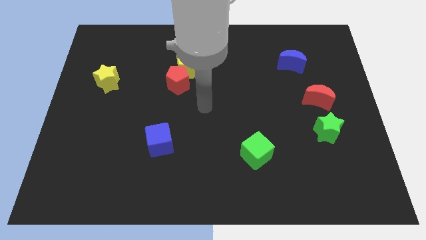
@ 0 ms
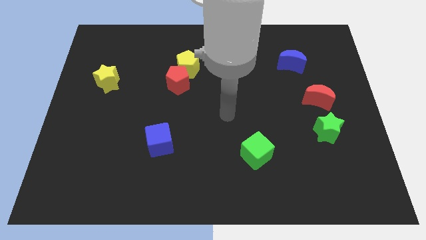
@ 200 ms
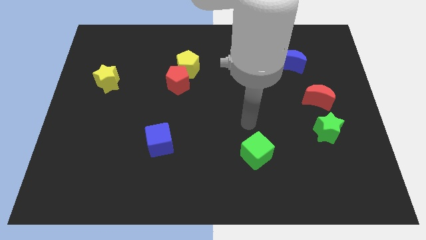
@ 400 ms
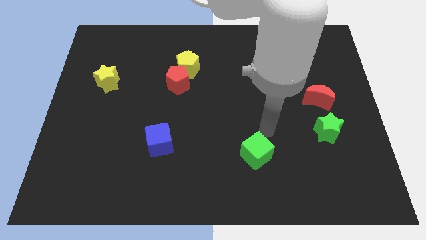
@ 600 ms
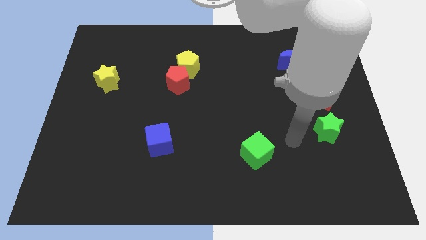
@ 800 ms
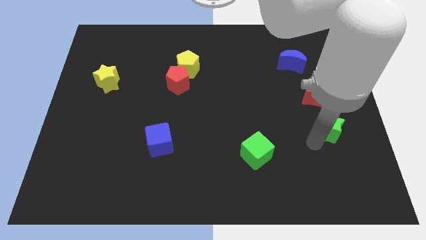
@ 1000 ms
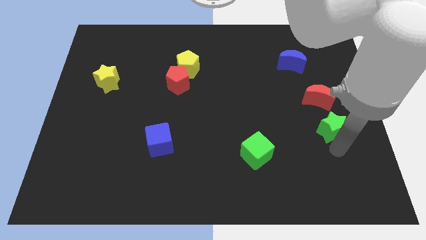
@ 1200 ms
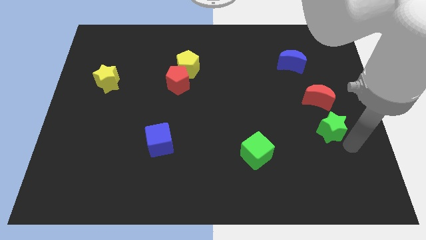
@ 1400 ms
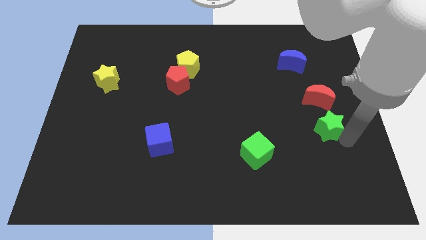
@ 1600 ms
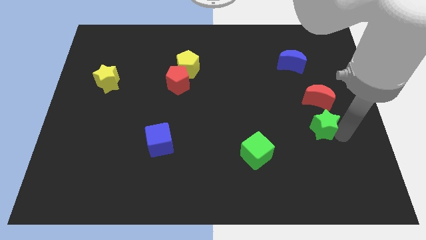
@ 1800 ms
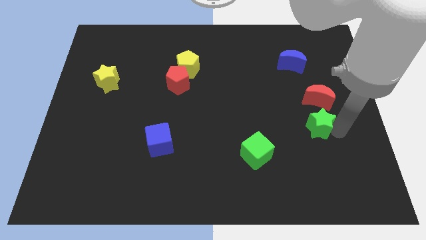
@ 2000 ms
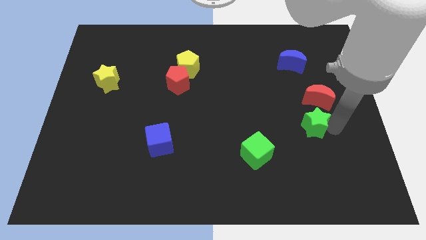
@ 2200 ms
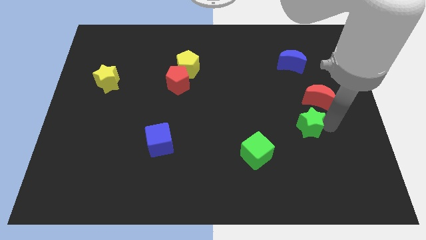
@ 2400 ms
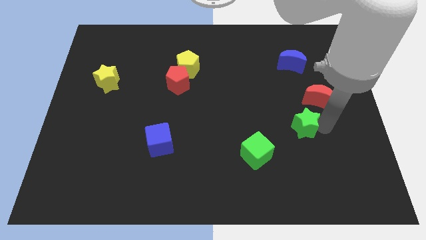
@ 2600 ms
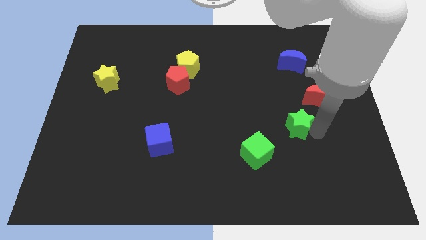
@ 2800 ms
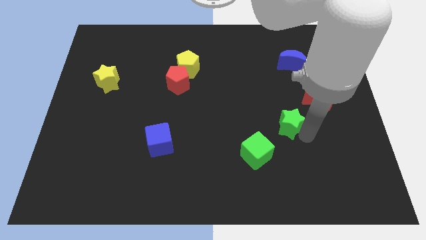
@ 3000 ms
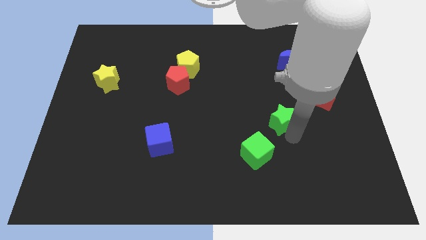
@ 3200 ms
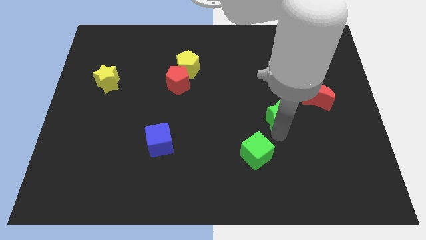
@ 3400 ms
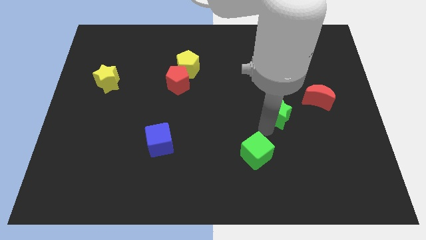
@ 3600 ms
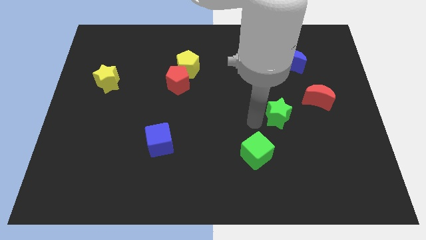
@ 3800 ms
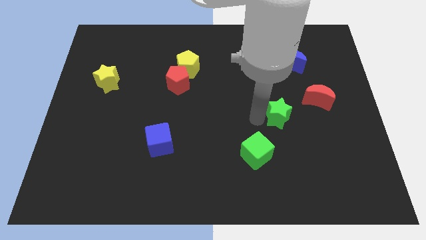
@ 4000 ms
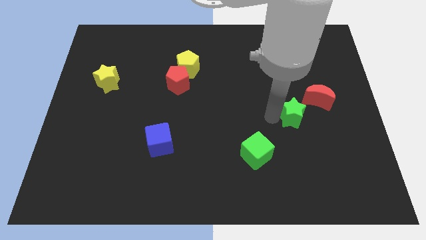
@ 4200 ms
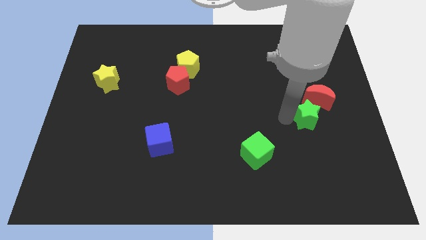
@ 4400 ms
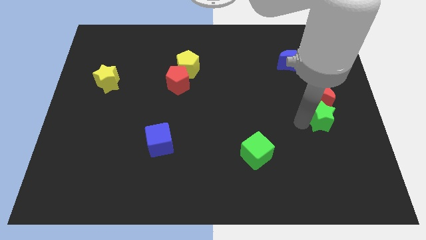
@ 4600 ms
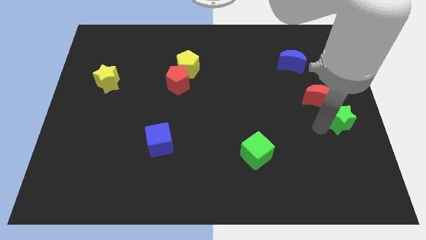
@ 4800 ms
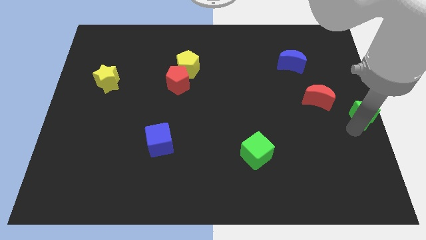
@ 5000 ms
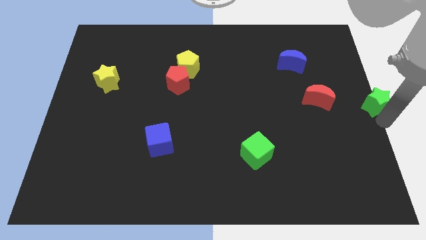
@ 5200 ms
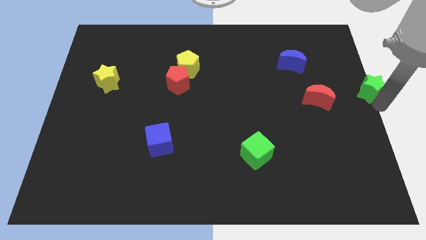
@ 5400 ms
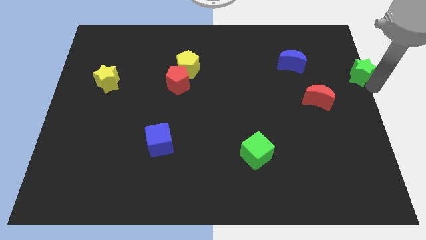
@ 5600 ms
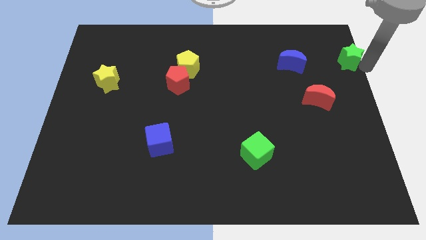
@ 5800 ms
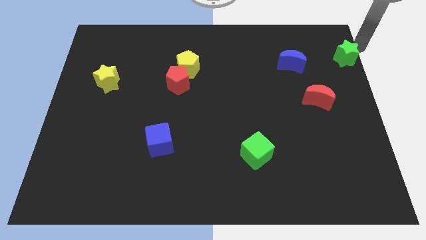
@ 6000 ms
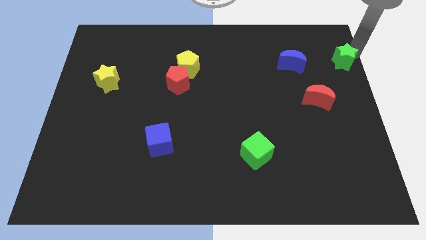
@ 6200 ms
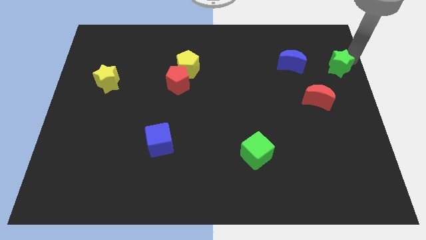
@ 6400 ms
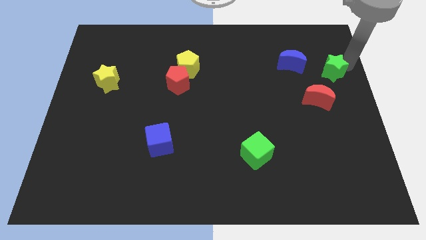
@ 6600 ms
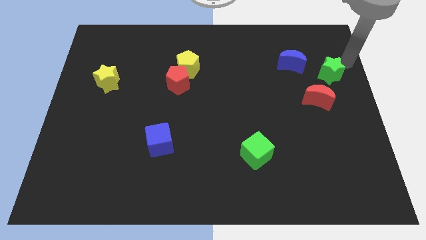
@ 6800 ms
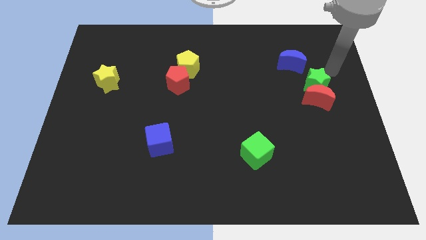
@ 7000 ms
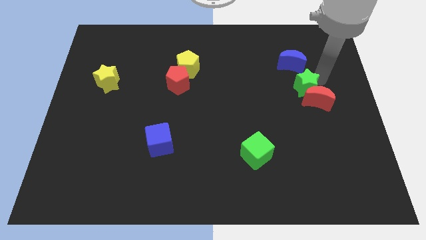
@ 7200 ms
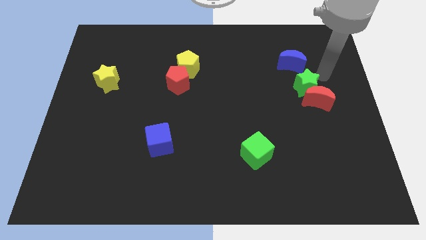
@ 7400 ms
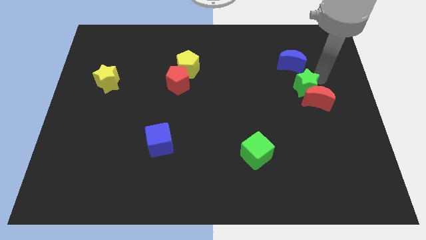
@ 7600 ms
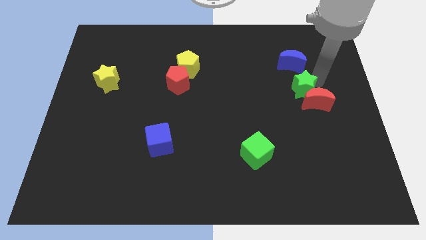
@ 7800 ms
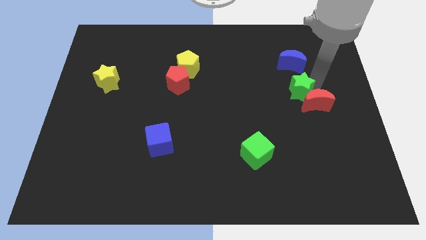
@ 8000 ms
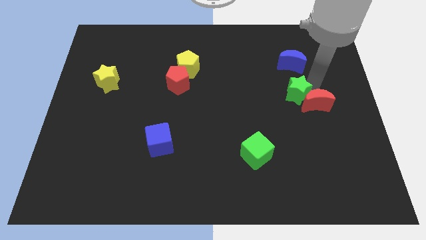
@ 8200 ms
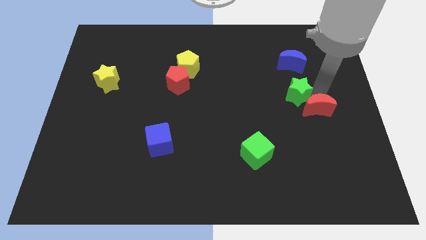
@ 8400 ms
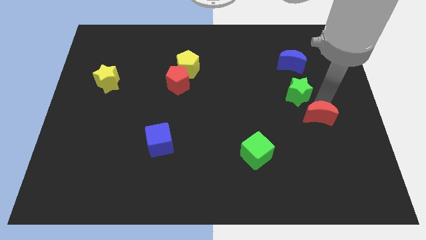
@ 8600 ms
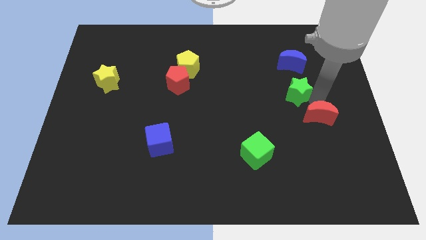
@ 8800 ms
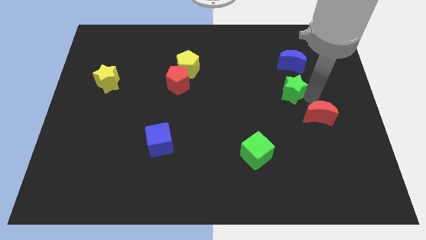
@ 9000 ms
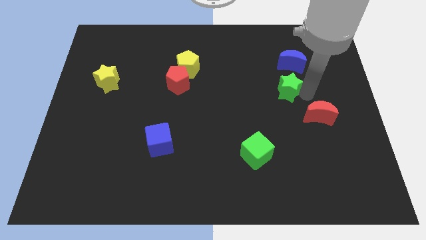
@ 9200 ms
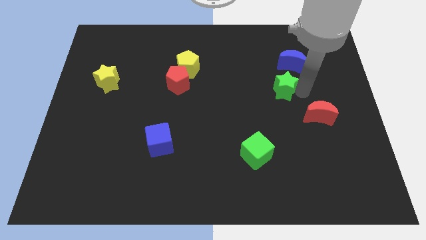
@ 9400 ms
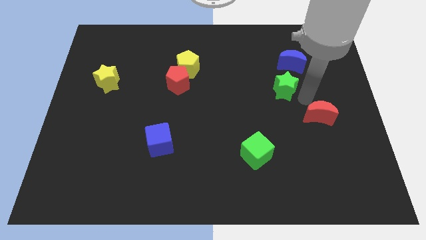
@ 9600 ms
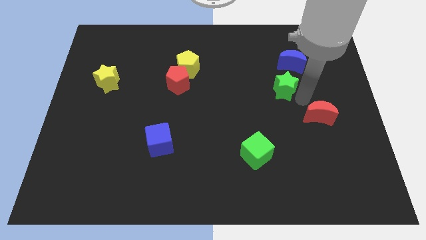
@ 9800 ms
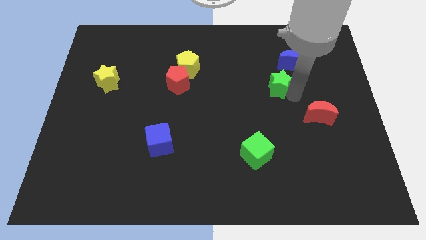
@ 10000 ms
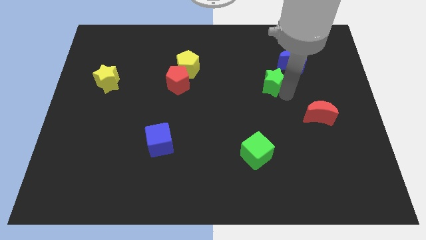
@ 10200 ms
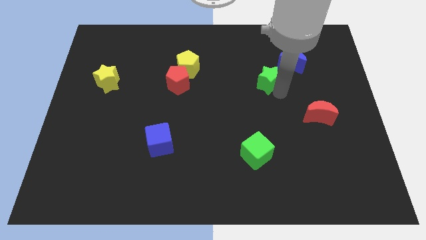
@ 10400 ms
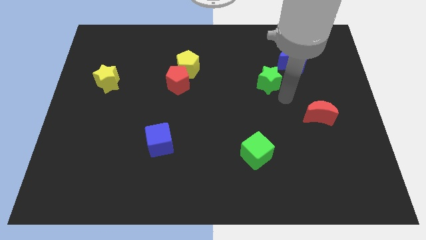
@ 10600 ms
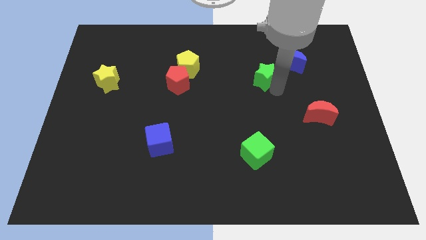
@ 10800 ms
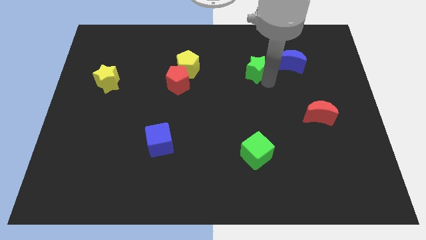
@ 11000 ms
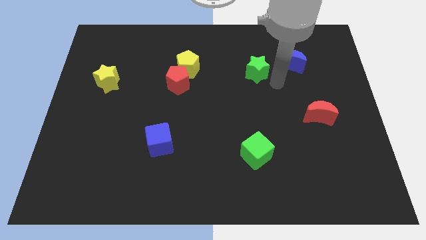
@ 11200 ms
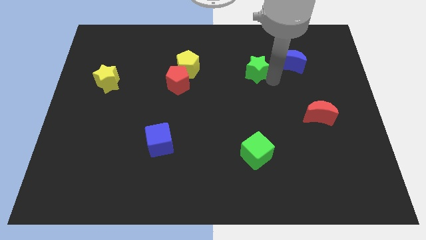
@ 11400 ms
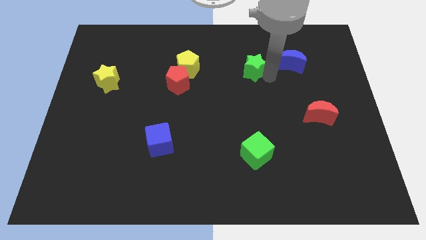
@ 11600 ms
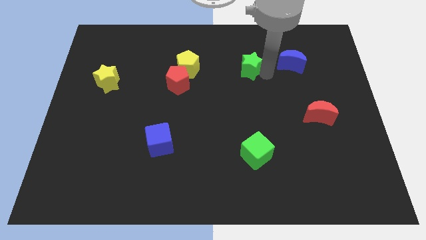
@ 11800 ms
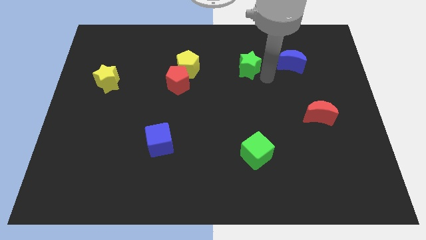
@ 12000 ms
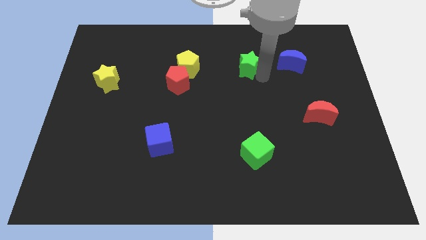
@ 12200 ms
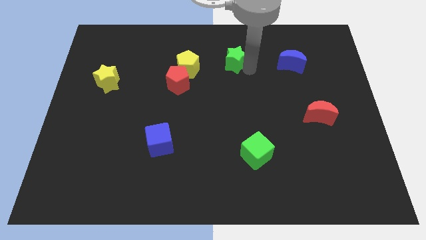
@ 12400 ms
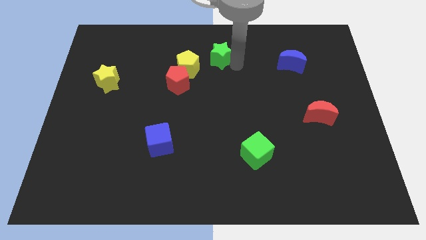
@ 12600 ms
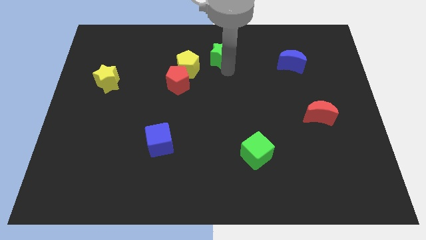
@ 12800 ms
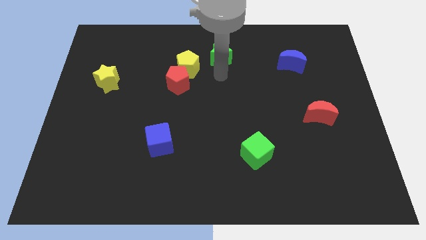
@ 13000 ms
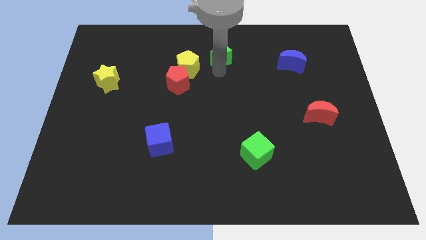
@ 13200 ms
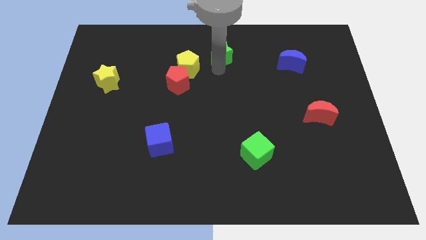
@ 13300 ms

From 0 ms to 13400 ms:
put the green star to the top side

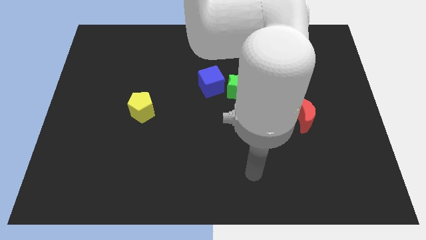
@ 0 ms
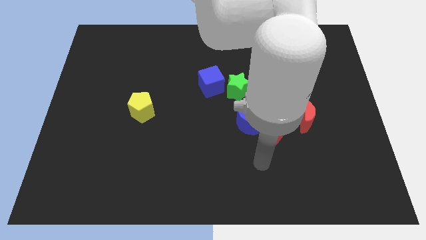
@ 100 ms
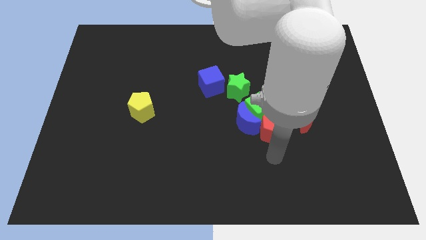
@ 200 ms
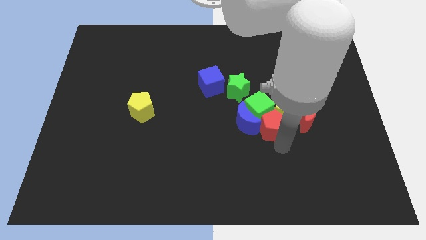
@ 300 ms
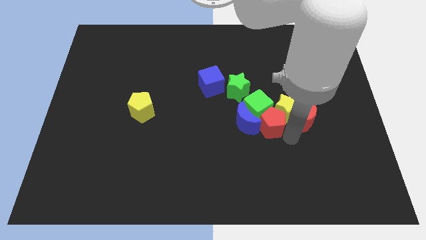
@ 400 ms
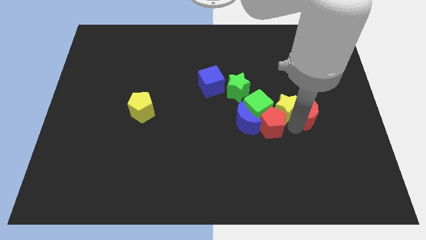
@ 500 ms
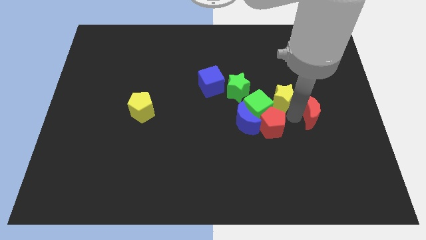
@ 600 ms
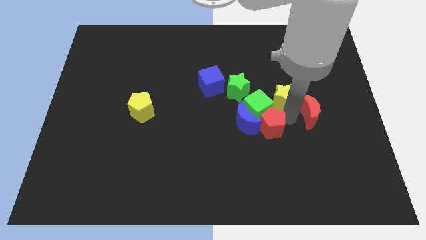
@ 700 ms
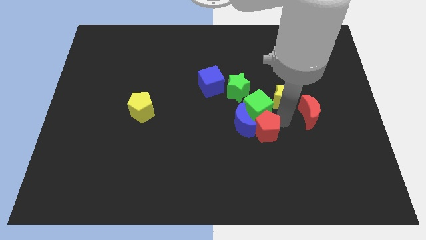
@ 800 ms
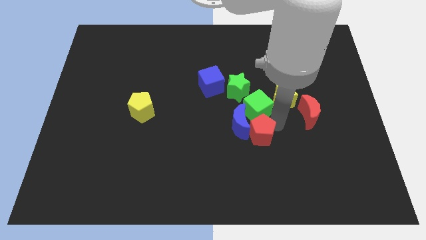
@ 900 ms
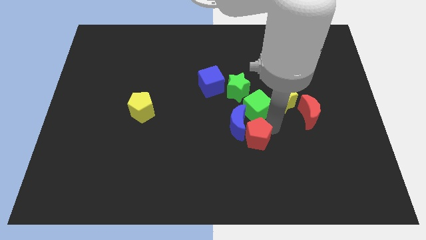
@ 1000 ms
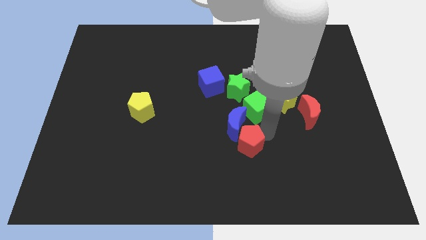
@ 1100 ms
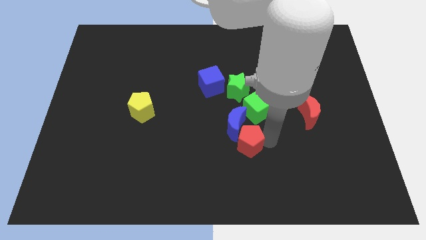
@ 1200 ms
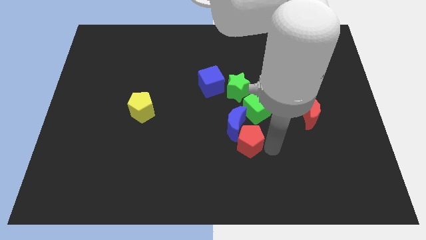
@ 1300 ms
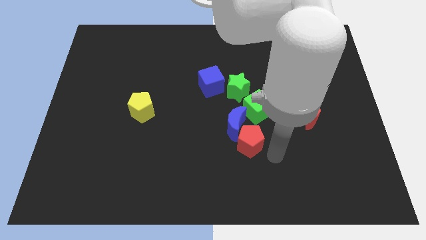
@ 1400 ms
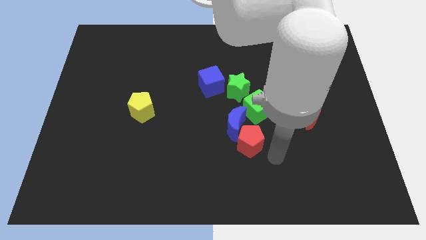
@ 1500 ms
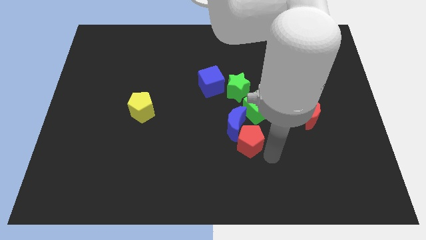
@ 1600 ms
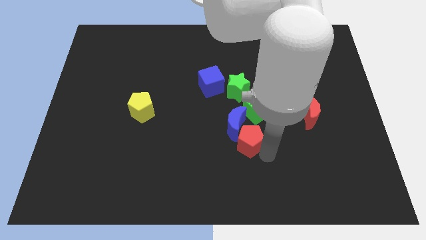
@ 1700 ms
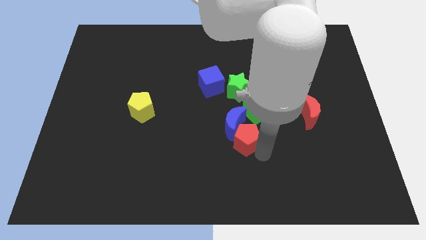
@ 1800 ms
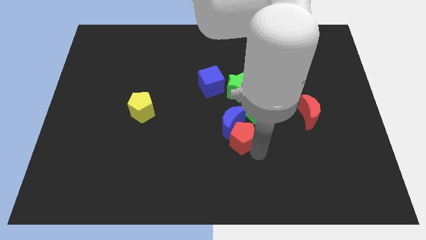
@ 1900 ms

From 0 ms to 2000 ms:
move the red pentagon to the middle
